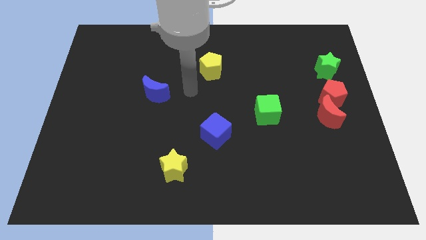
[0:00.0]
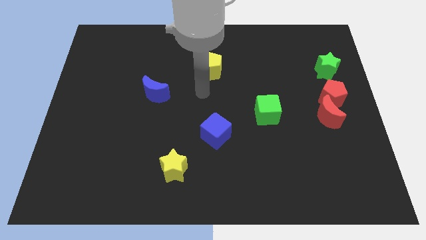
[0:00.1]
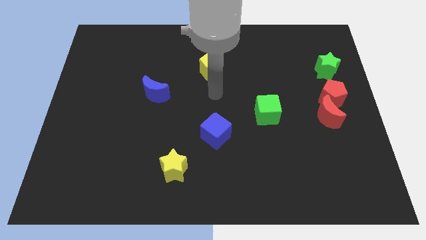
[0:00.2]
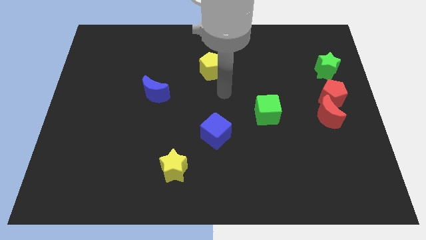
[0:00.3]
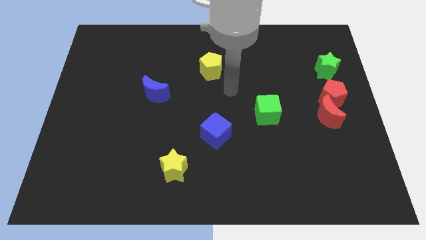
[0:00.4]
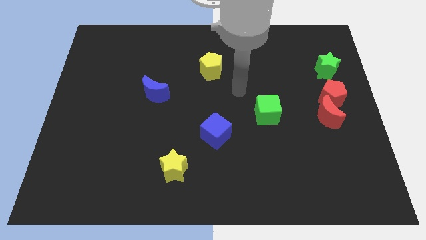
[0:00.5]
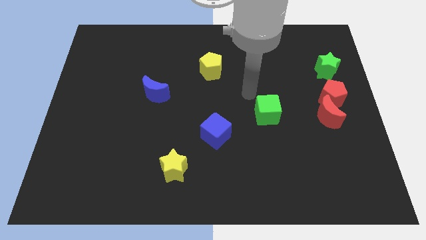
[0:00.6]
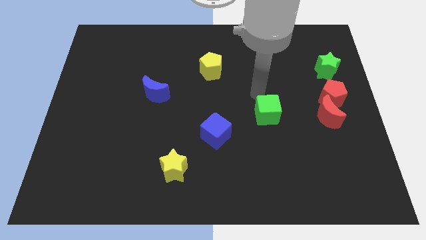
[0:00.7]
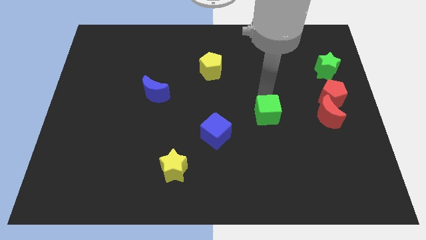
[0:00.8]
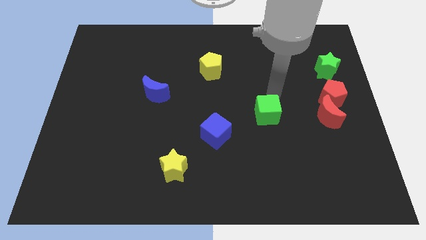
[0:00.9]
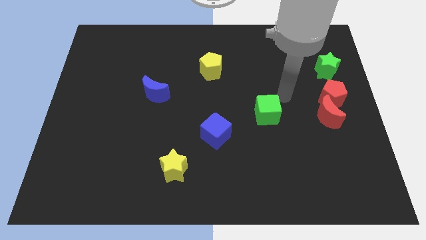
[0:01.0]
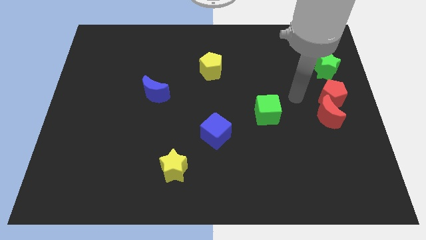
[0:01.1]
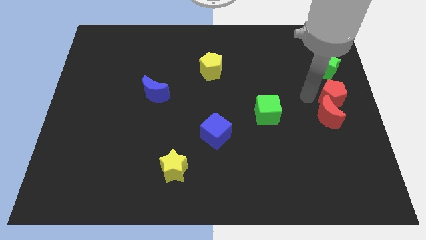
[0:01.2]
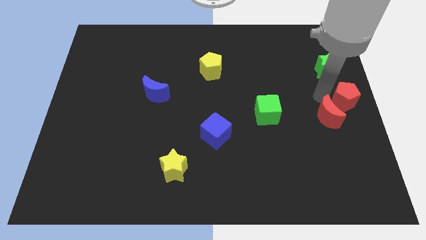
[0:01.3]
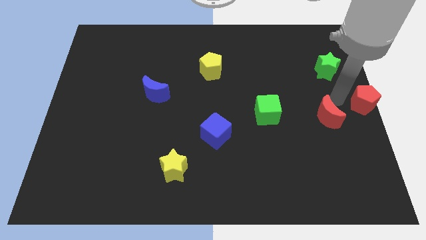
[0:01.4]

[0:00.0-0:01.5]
separate the red moon from the red pentagon

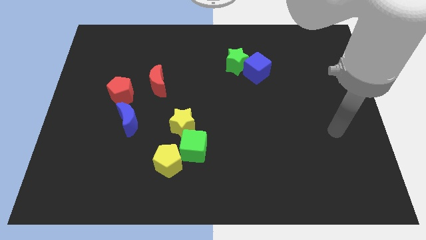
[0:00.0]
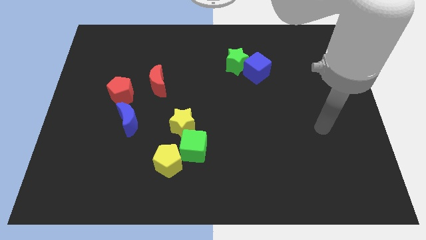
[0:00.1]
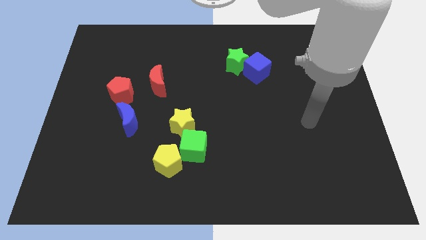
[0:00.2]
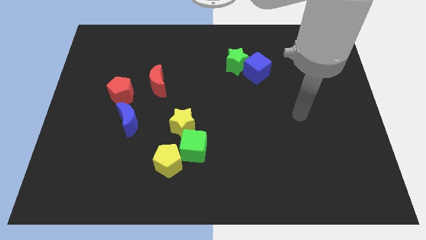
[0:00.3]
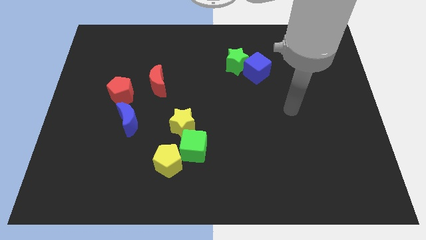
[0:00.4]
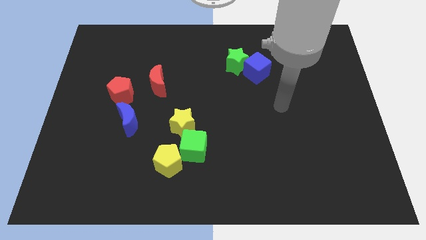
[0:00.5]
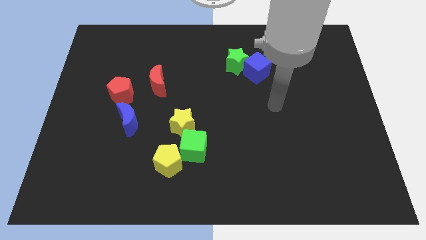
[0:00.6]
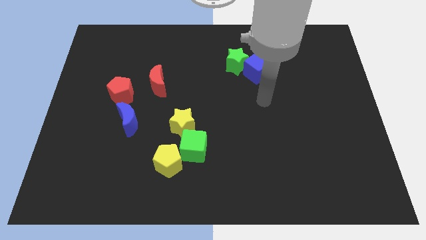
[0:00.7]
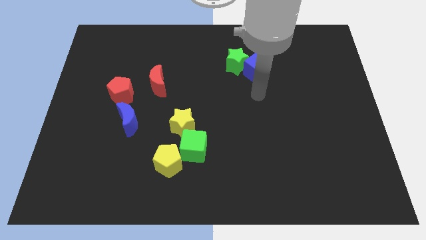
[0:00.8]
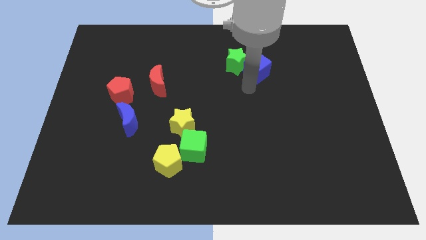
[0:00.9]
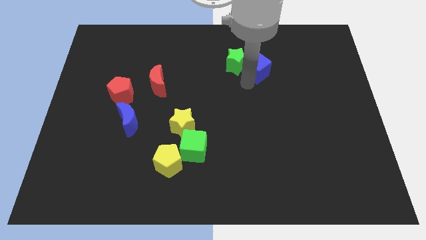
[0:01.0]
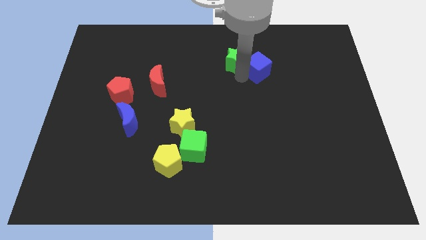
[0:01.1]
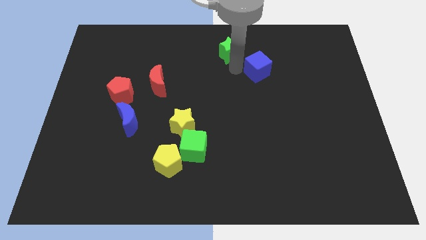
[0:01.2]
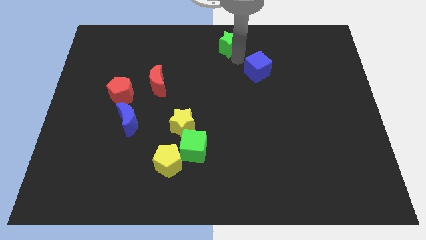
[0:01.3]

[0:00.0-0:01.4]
move the blue cube away from the green star

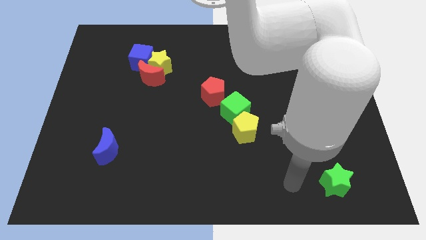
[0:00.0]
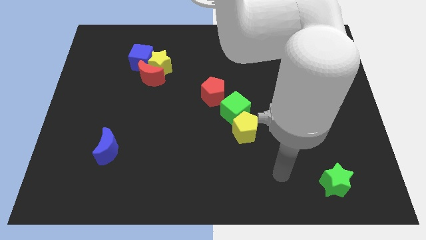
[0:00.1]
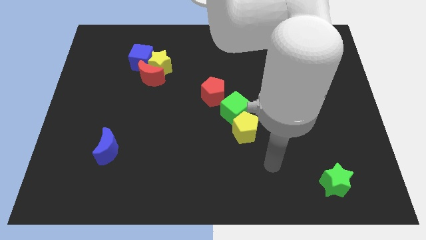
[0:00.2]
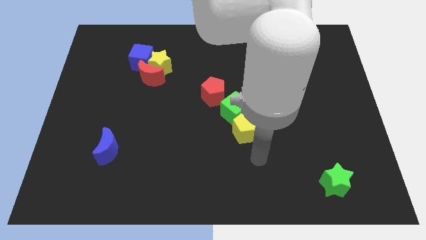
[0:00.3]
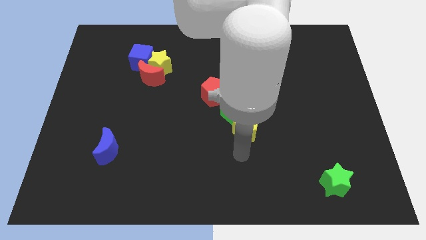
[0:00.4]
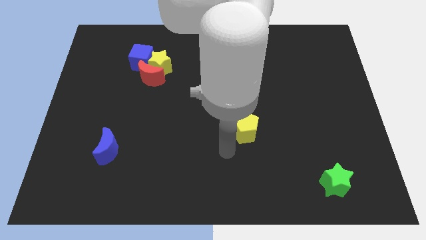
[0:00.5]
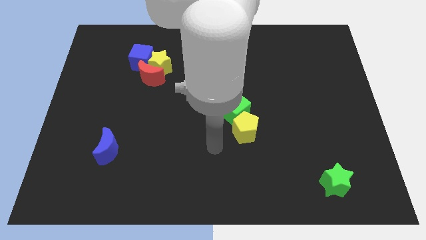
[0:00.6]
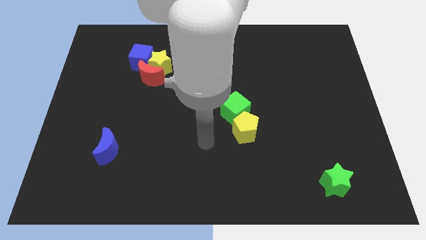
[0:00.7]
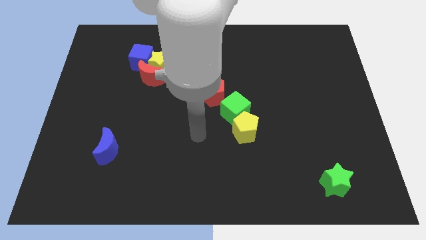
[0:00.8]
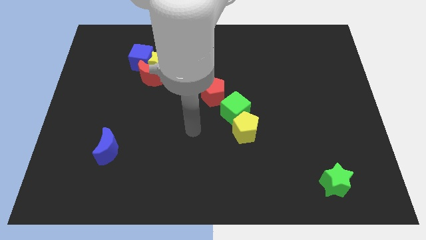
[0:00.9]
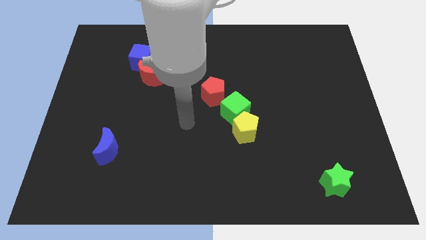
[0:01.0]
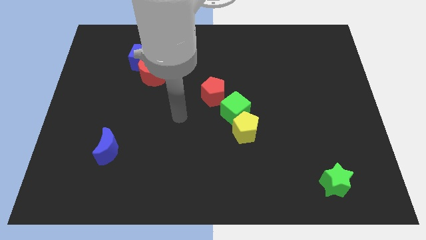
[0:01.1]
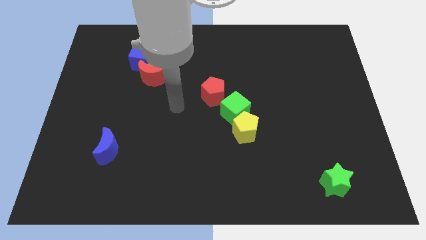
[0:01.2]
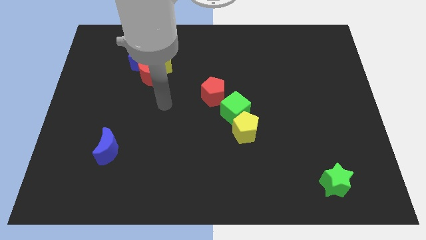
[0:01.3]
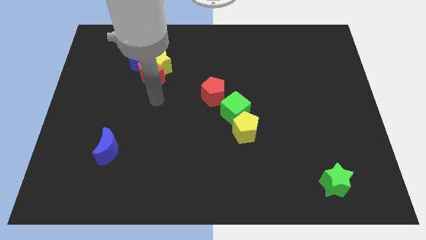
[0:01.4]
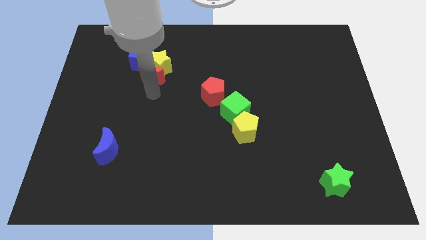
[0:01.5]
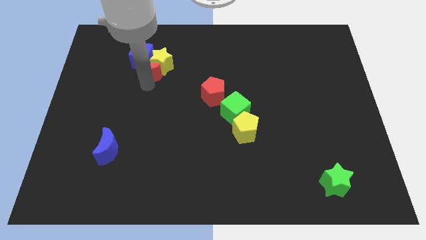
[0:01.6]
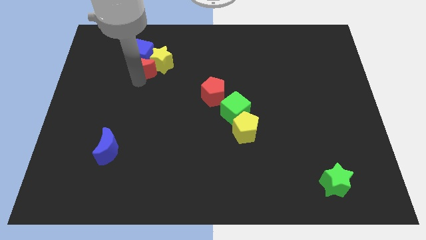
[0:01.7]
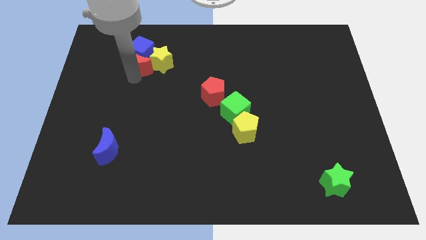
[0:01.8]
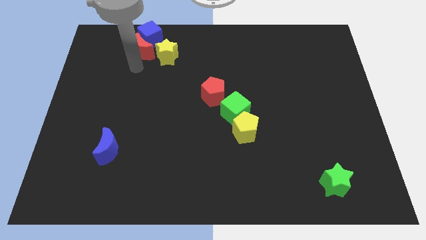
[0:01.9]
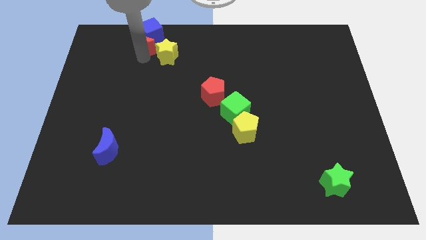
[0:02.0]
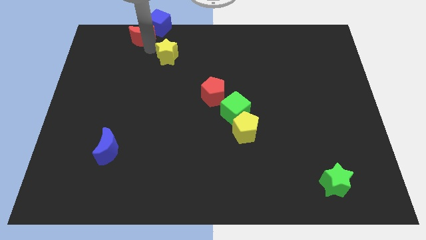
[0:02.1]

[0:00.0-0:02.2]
move the yellow star away from the red moon and blue cube

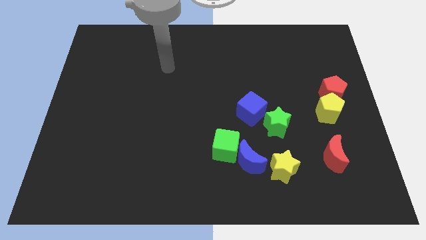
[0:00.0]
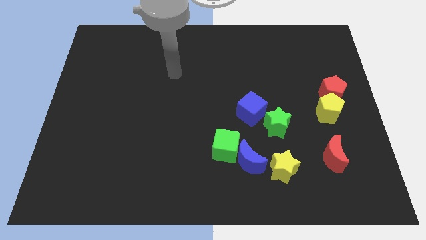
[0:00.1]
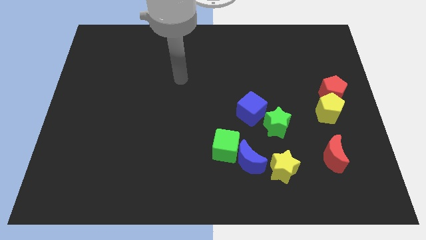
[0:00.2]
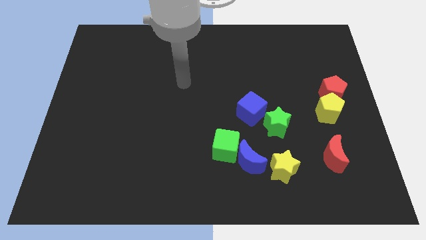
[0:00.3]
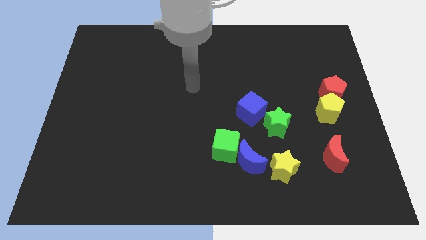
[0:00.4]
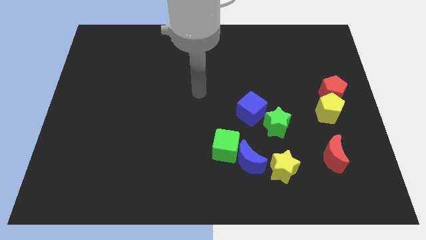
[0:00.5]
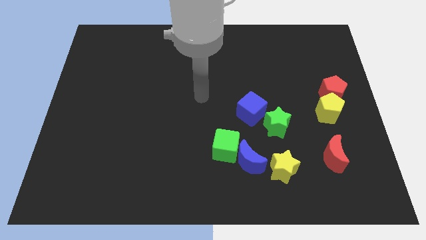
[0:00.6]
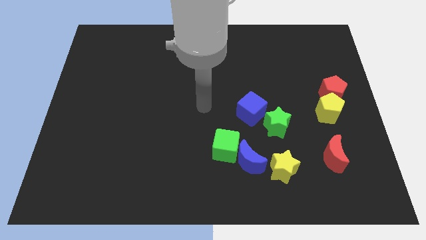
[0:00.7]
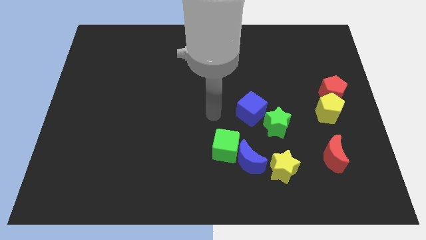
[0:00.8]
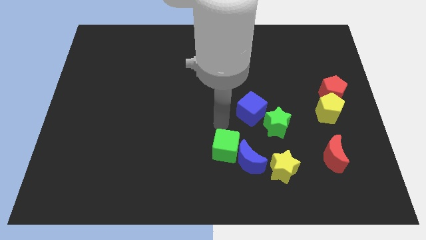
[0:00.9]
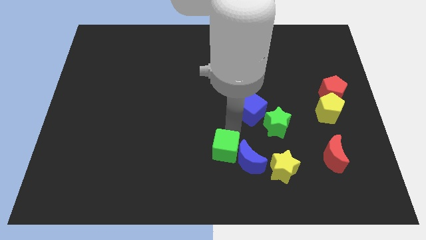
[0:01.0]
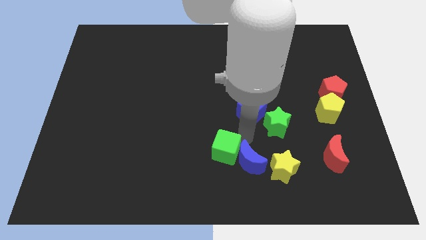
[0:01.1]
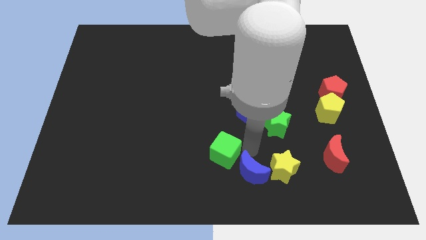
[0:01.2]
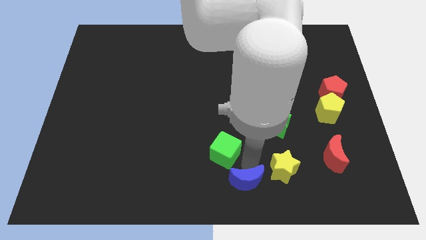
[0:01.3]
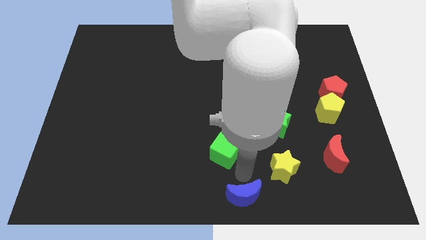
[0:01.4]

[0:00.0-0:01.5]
pull the green cube apart from the blue moon

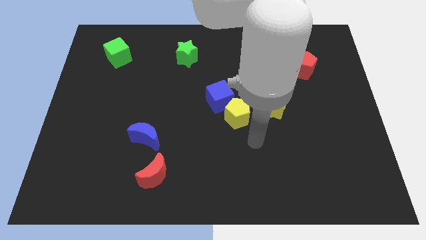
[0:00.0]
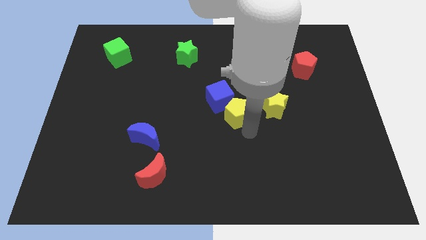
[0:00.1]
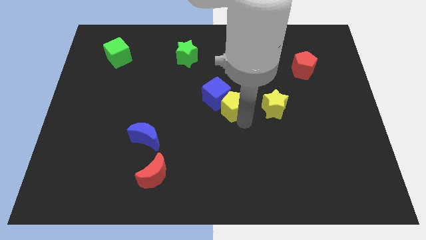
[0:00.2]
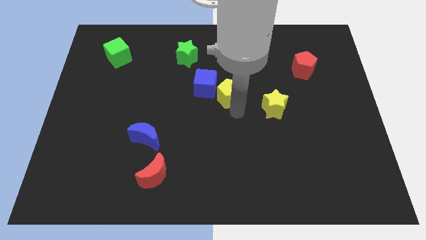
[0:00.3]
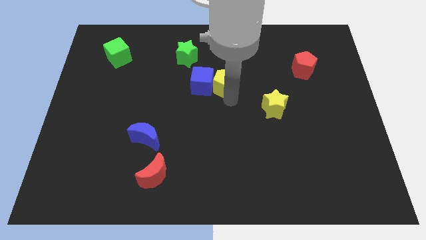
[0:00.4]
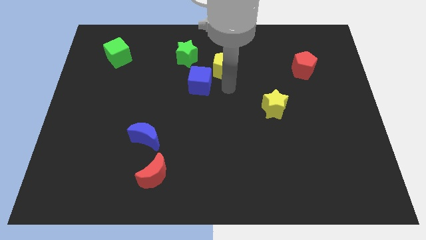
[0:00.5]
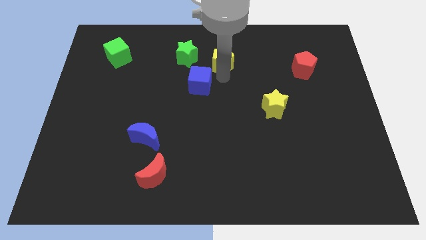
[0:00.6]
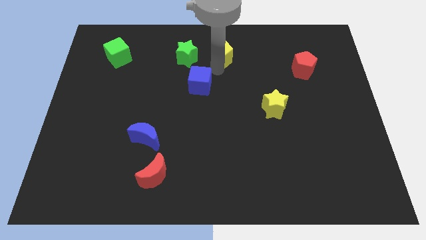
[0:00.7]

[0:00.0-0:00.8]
separate the blue cube from the yellow pentagon

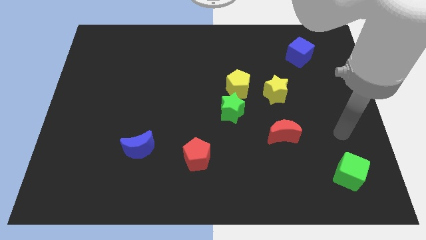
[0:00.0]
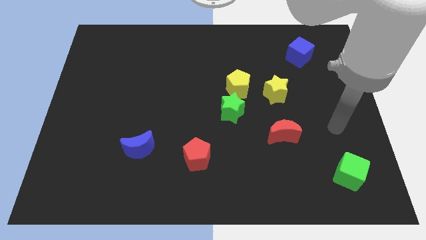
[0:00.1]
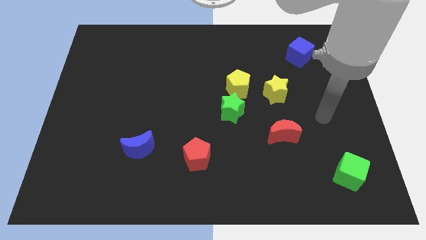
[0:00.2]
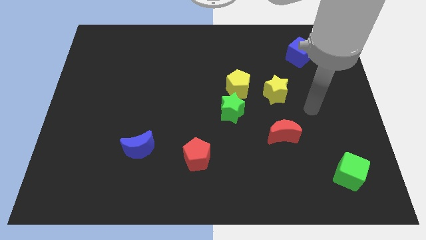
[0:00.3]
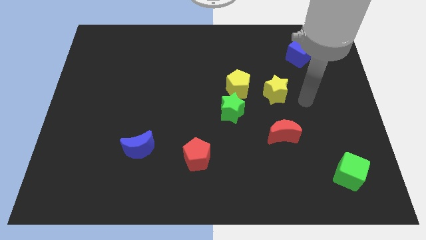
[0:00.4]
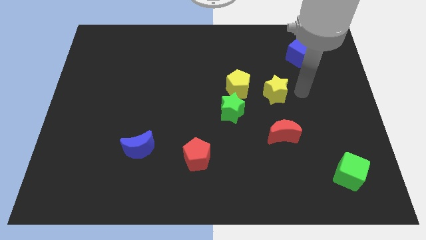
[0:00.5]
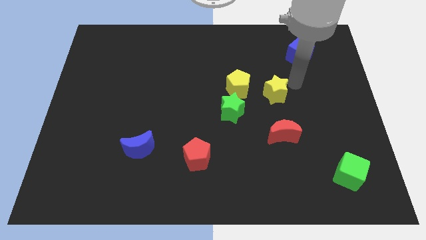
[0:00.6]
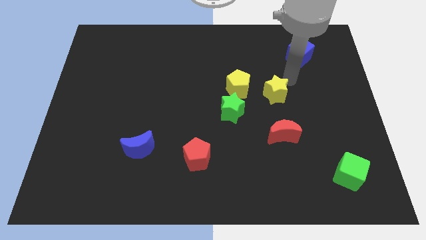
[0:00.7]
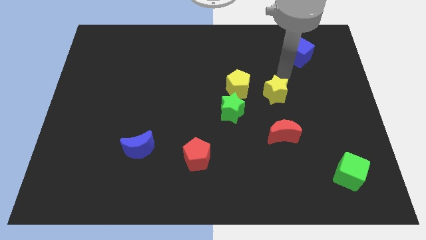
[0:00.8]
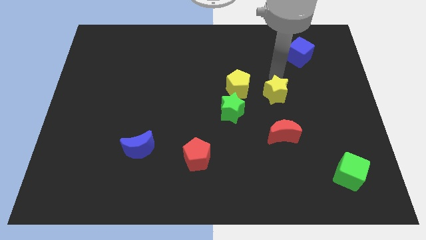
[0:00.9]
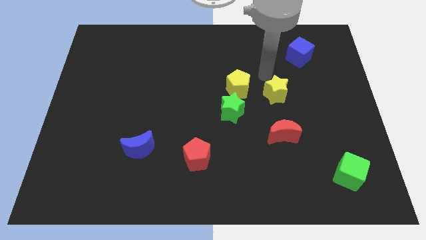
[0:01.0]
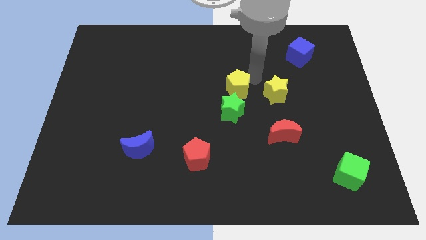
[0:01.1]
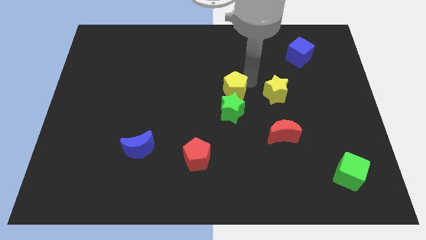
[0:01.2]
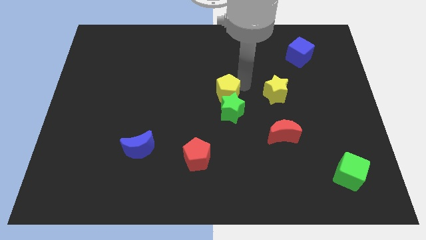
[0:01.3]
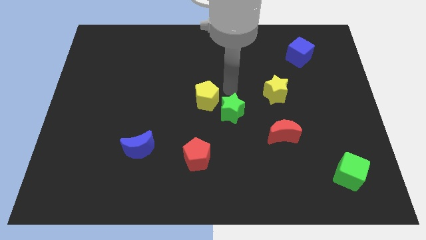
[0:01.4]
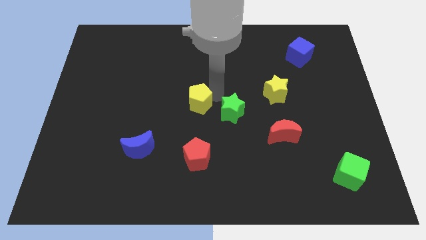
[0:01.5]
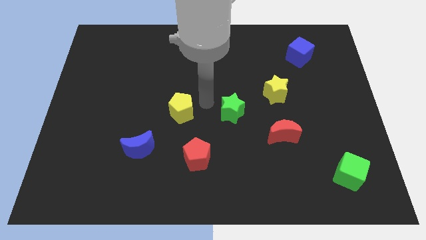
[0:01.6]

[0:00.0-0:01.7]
move the green star away from the yellow pentagon

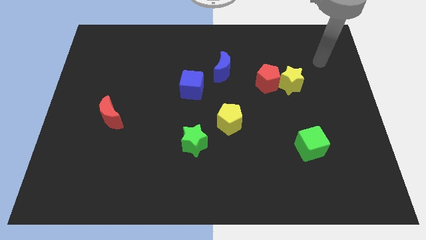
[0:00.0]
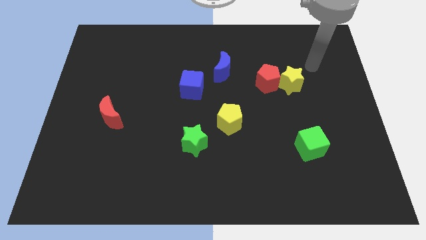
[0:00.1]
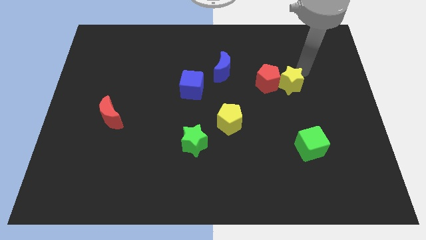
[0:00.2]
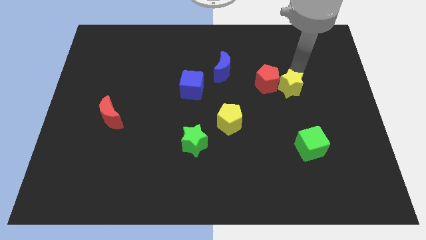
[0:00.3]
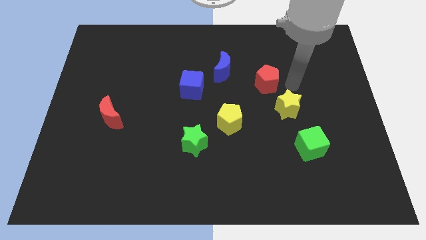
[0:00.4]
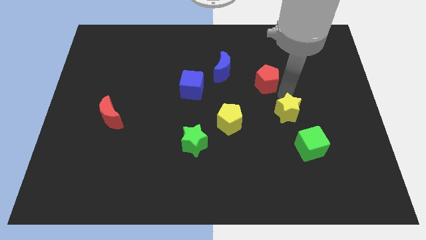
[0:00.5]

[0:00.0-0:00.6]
separate the red pentagon from the yellow star
